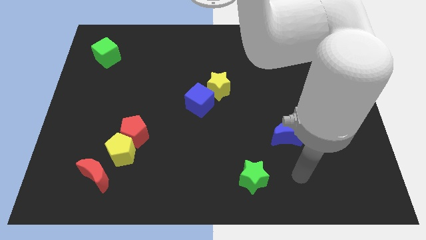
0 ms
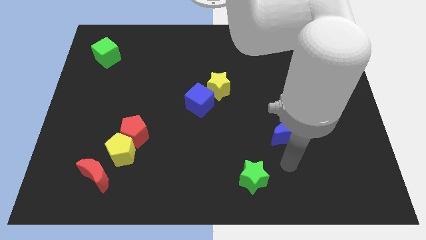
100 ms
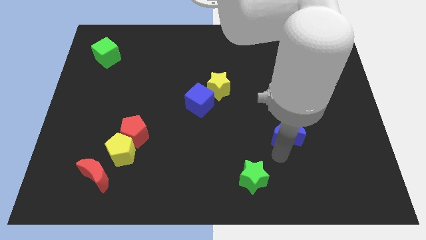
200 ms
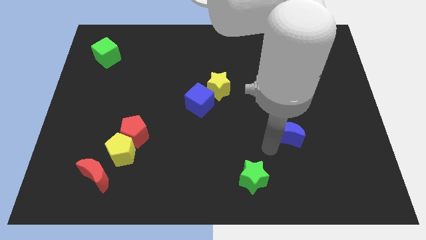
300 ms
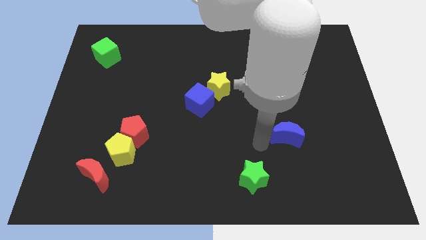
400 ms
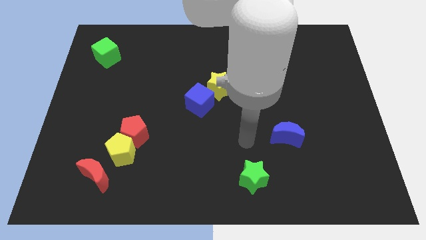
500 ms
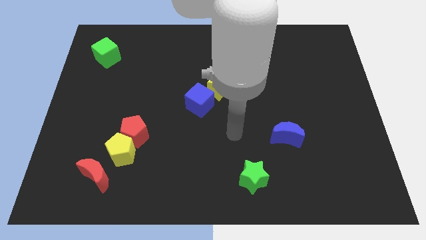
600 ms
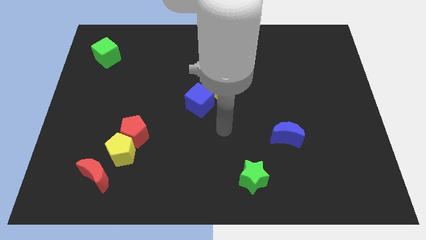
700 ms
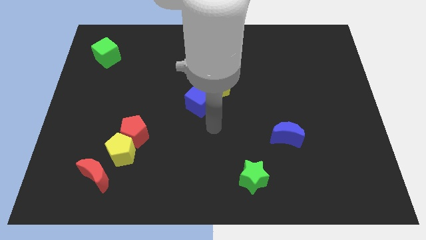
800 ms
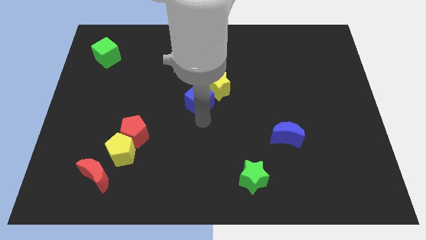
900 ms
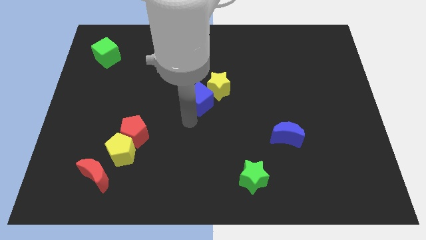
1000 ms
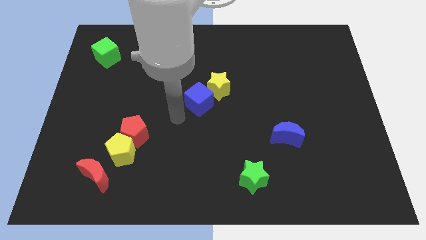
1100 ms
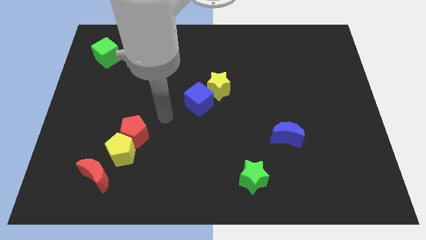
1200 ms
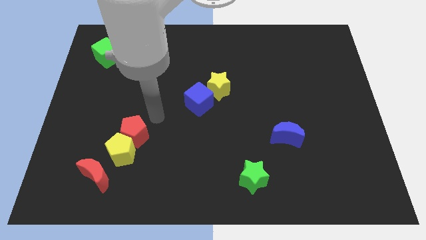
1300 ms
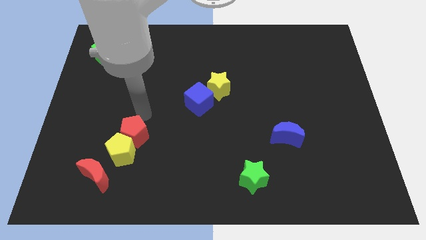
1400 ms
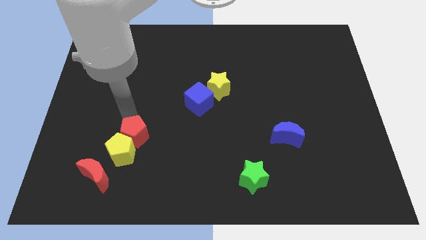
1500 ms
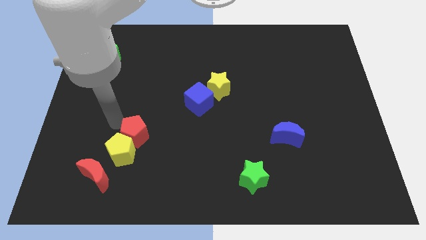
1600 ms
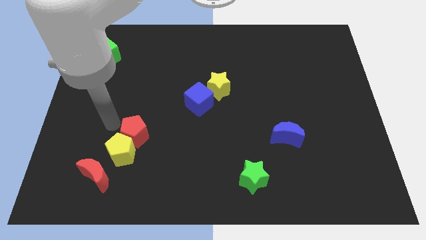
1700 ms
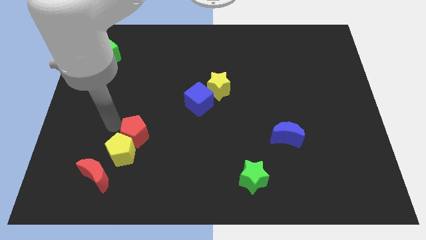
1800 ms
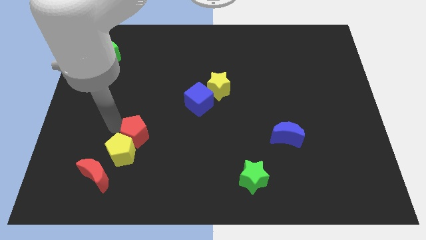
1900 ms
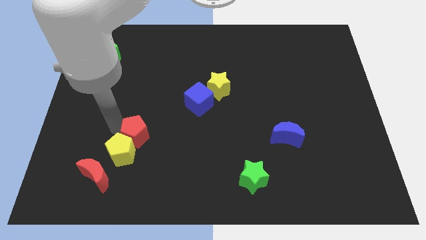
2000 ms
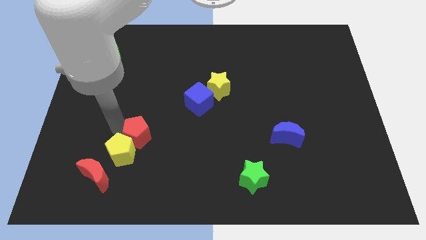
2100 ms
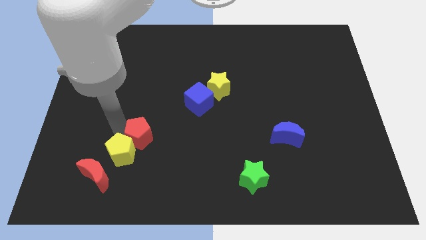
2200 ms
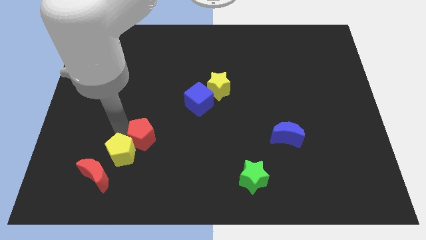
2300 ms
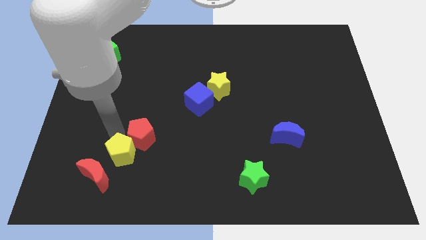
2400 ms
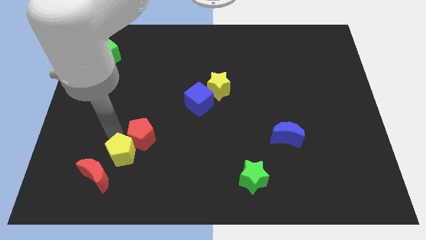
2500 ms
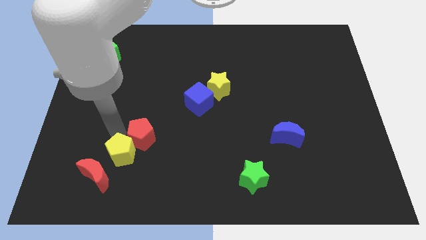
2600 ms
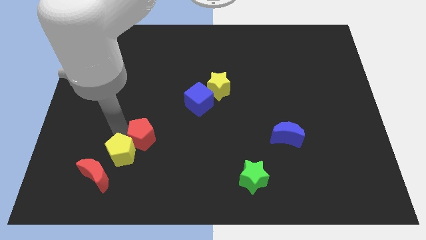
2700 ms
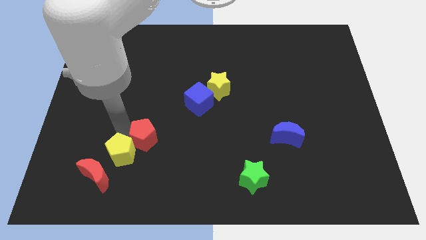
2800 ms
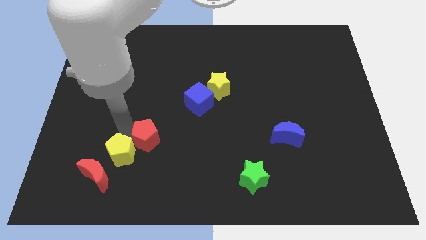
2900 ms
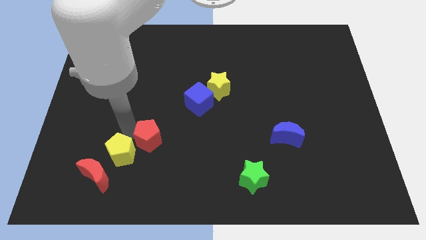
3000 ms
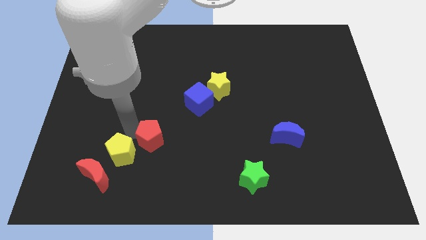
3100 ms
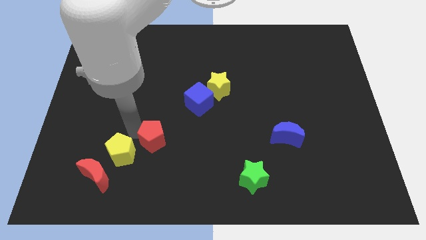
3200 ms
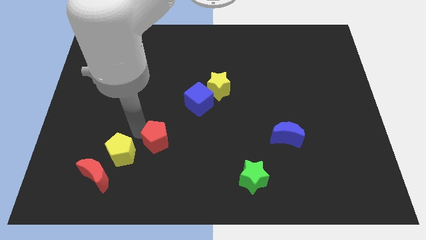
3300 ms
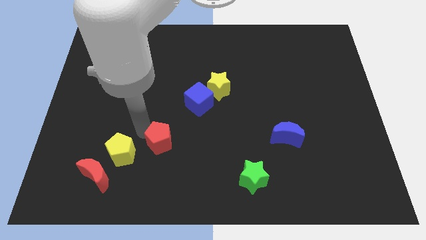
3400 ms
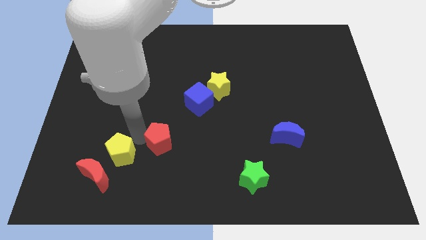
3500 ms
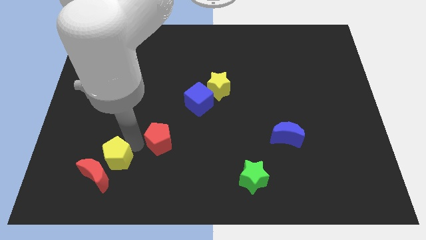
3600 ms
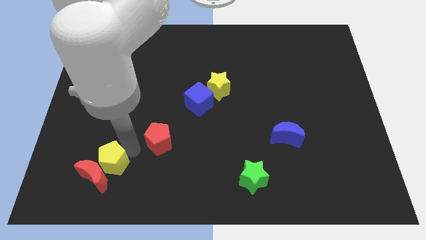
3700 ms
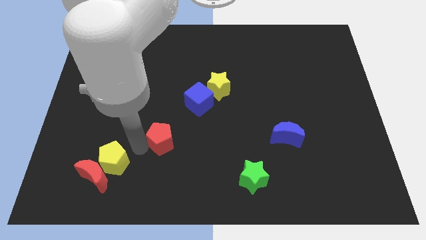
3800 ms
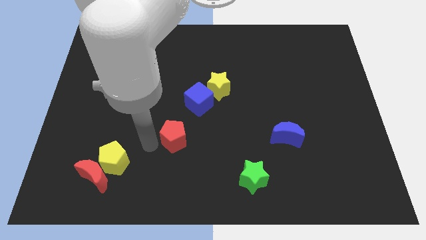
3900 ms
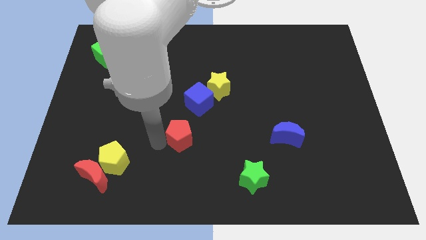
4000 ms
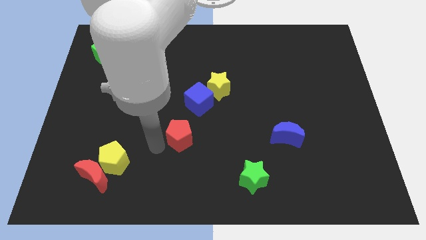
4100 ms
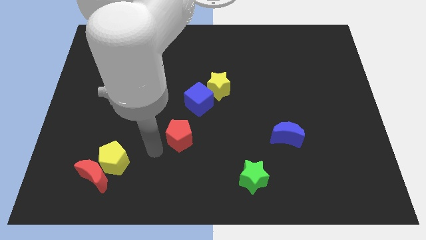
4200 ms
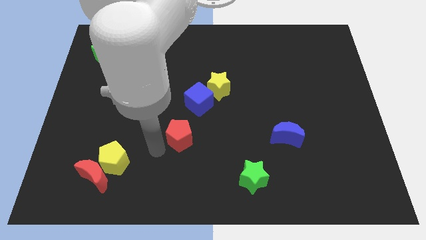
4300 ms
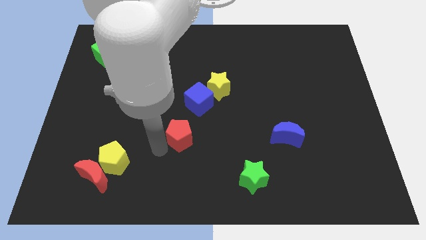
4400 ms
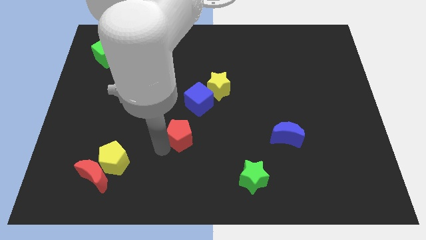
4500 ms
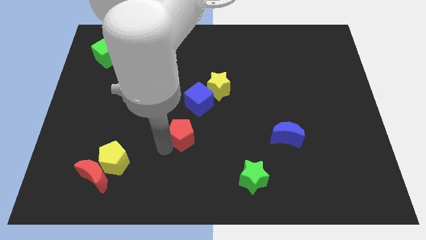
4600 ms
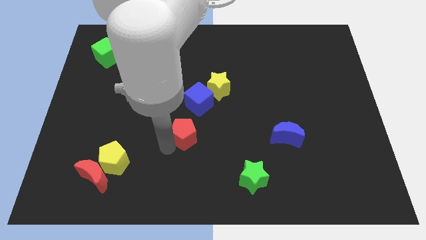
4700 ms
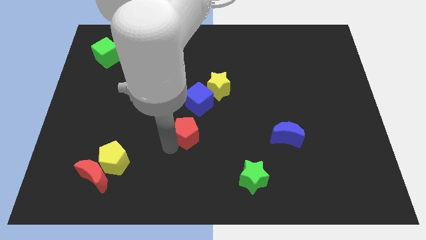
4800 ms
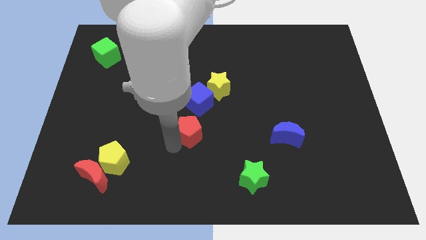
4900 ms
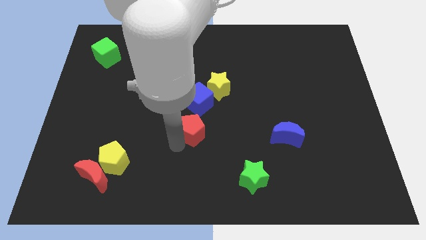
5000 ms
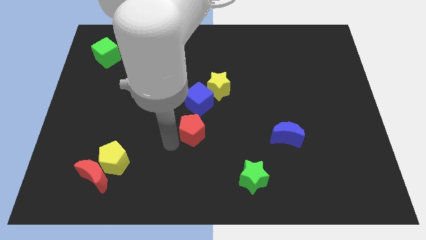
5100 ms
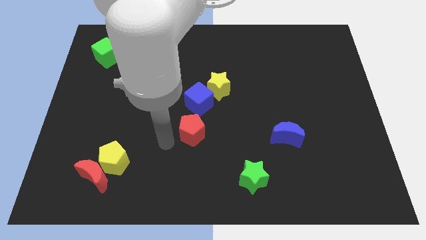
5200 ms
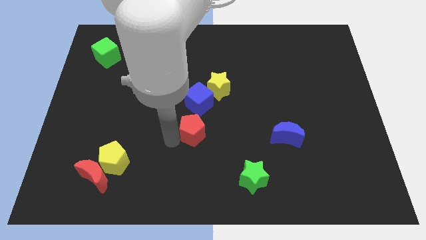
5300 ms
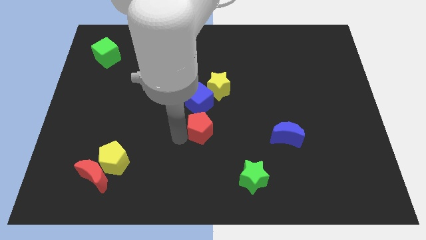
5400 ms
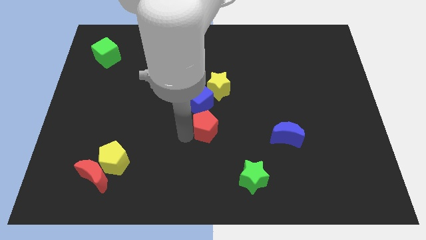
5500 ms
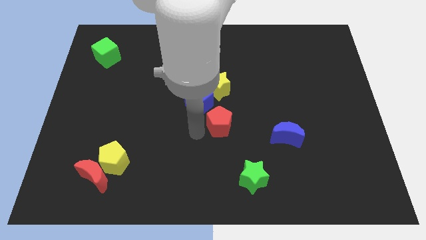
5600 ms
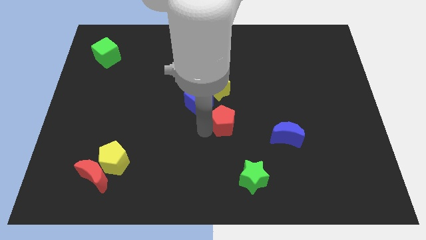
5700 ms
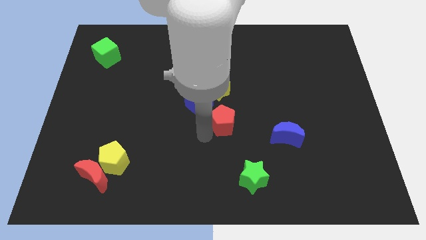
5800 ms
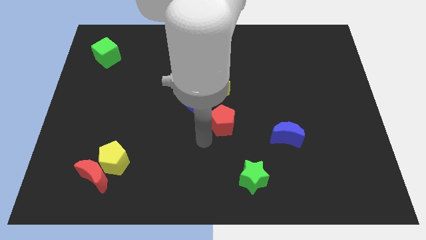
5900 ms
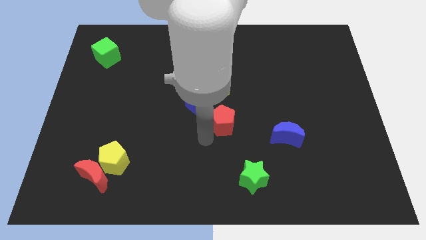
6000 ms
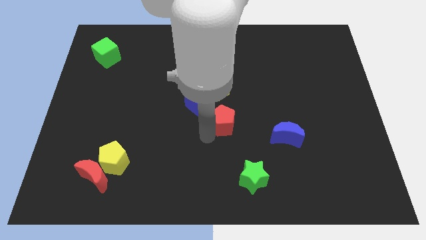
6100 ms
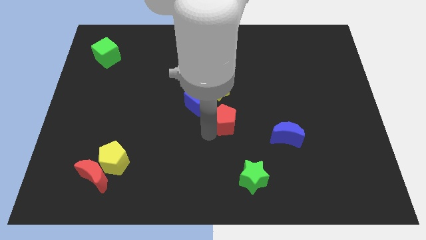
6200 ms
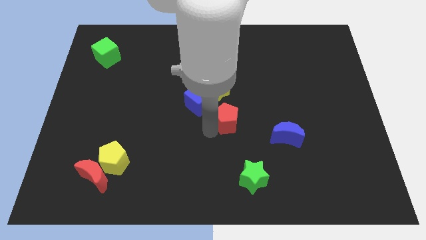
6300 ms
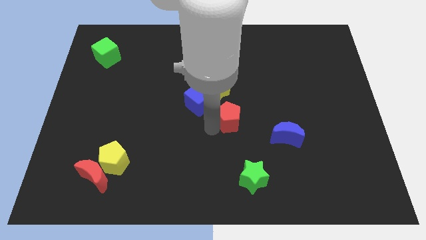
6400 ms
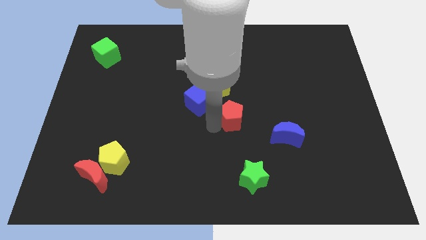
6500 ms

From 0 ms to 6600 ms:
put the red pentagon to the bottom right side of the yellow star

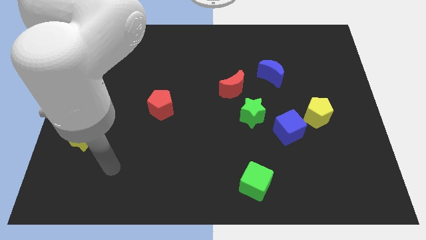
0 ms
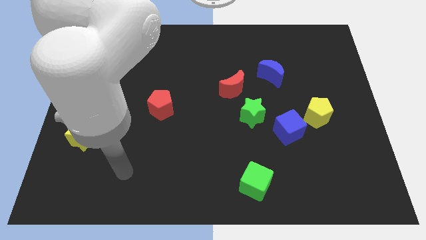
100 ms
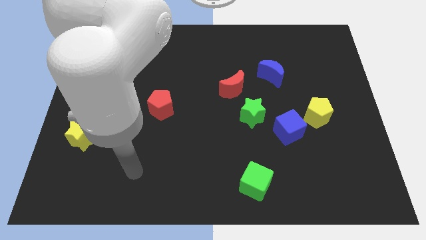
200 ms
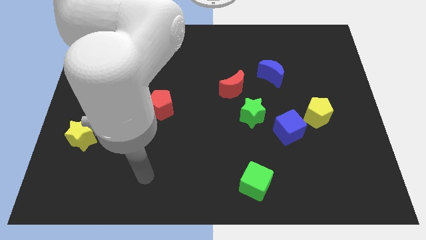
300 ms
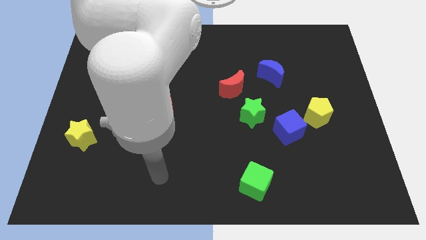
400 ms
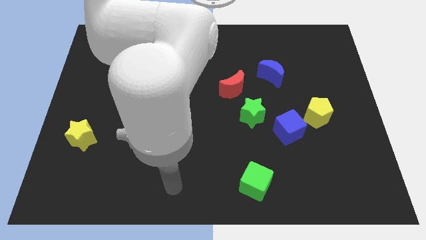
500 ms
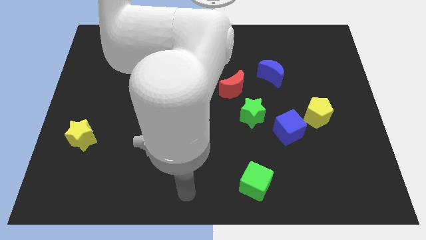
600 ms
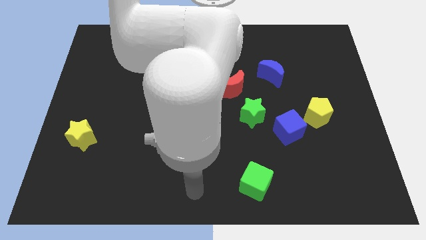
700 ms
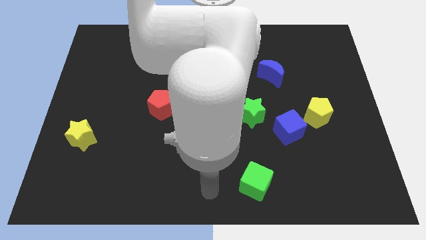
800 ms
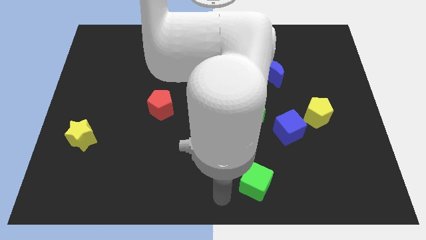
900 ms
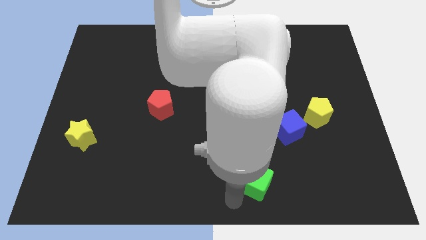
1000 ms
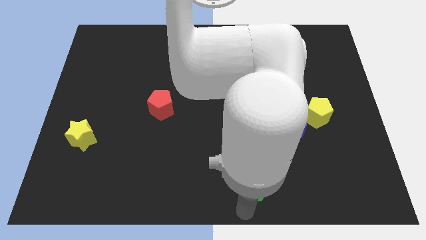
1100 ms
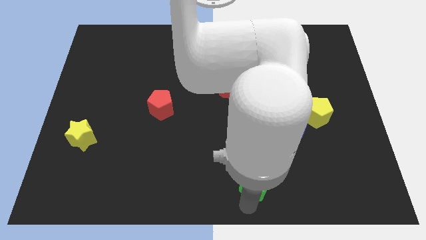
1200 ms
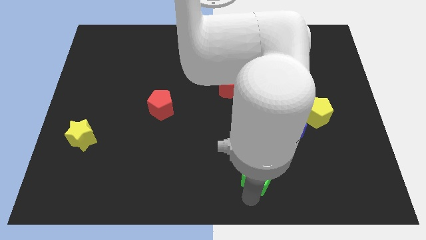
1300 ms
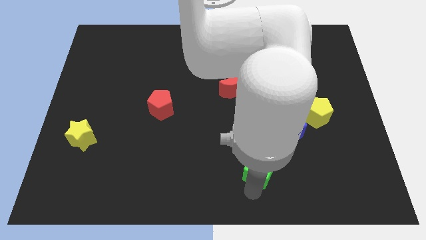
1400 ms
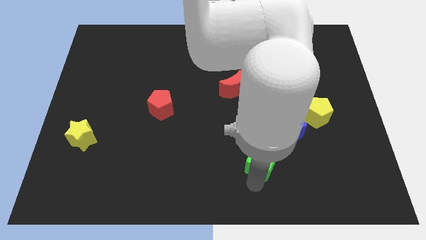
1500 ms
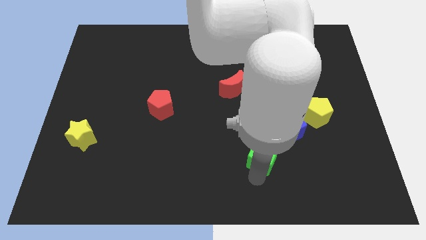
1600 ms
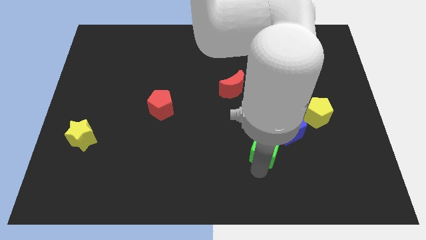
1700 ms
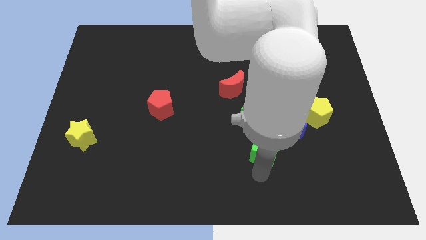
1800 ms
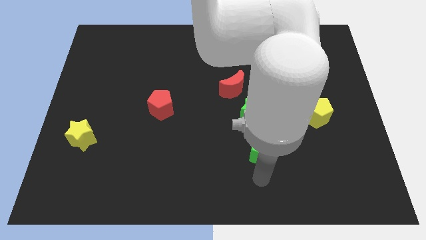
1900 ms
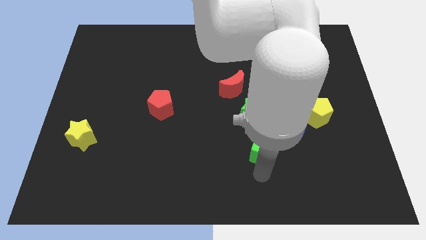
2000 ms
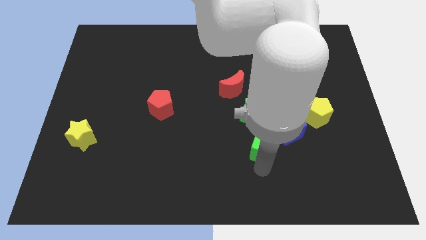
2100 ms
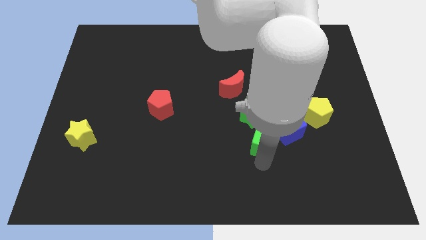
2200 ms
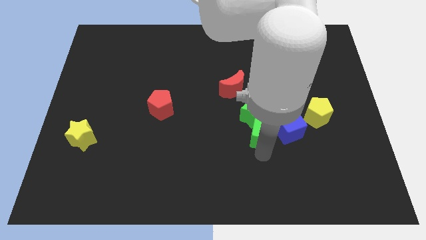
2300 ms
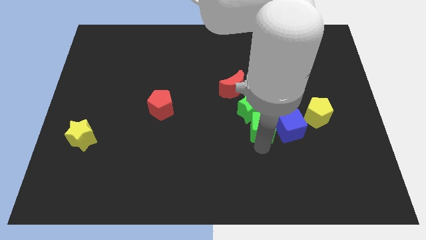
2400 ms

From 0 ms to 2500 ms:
push the green cube to the left side of the yellow pentagon
